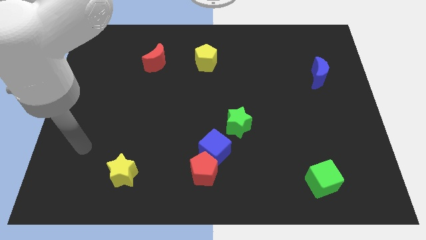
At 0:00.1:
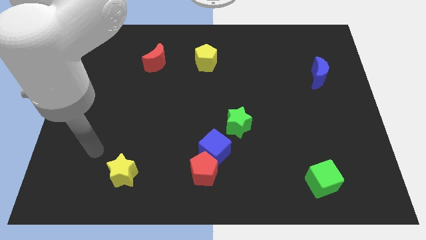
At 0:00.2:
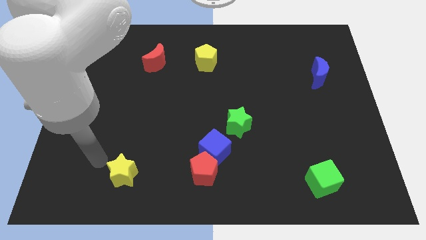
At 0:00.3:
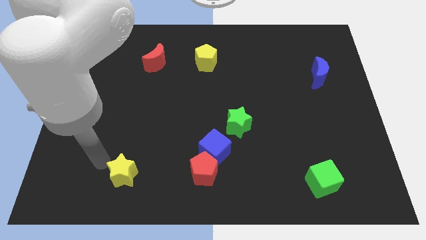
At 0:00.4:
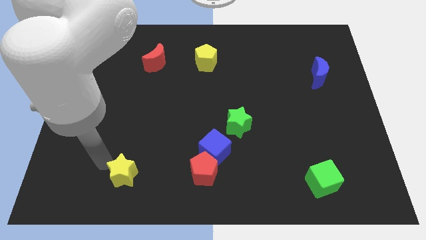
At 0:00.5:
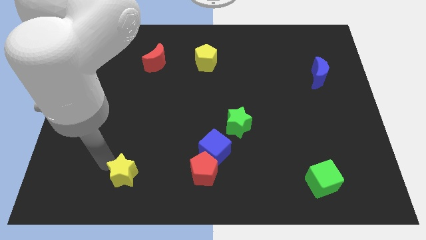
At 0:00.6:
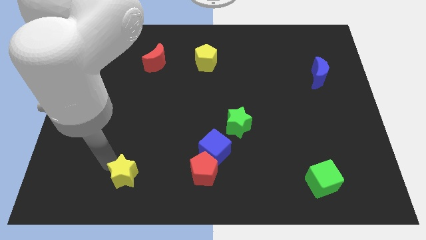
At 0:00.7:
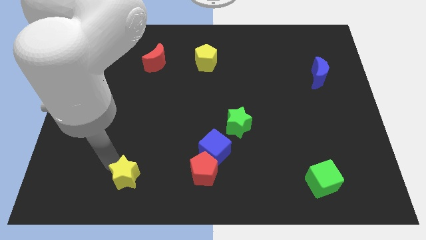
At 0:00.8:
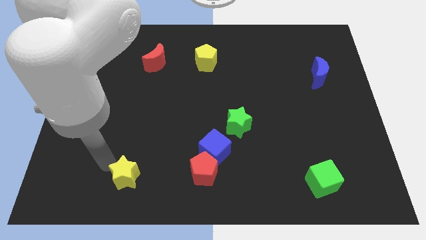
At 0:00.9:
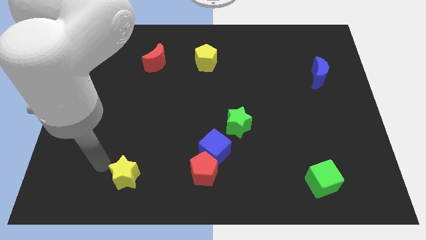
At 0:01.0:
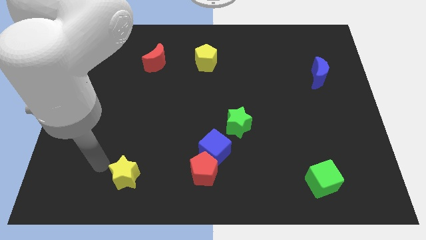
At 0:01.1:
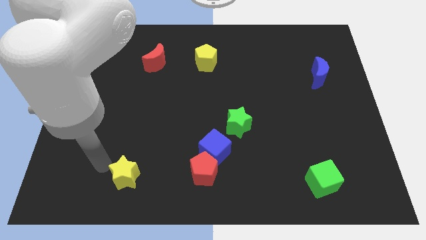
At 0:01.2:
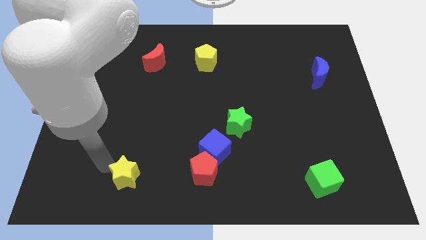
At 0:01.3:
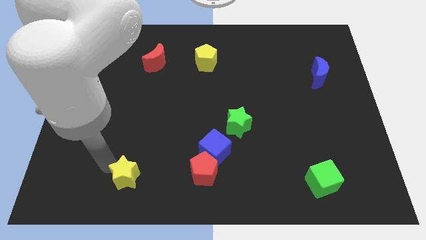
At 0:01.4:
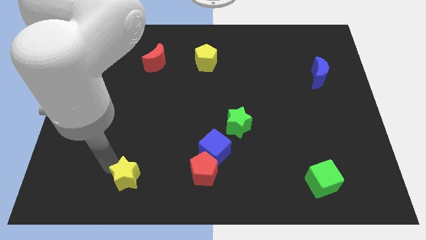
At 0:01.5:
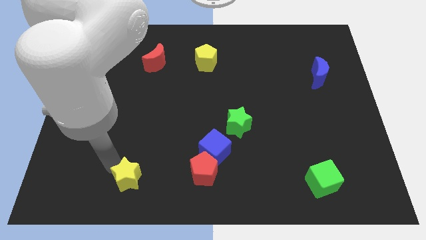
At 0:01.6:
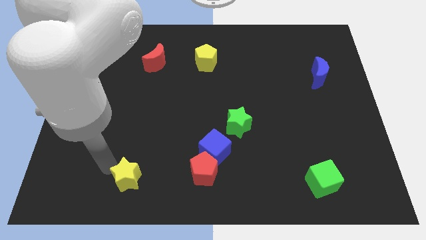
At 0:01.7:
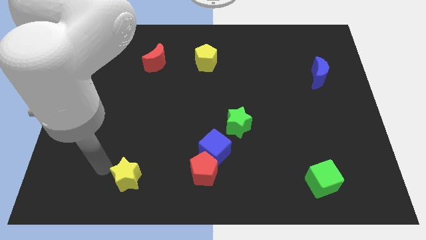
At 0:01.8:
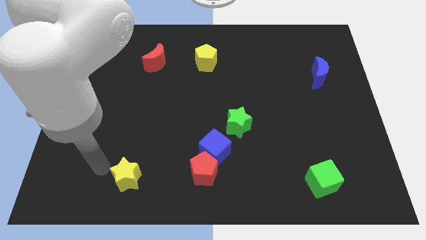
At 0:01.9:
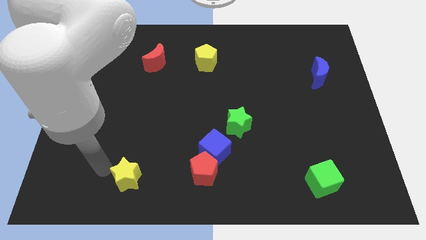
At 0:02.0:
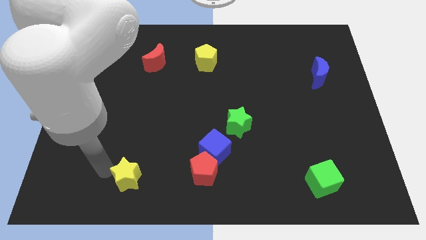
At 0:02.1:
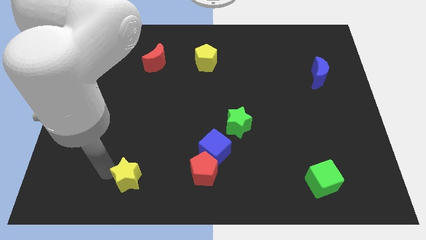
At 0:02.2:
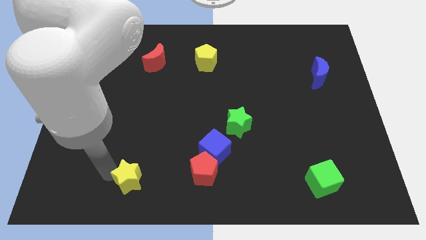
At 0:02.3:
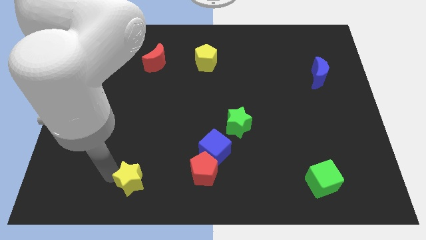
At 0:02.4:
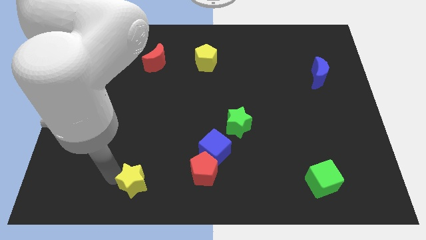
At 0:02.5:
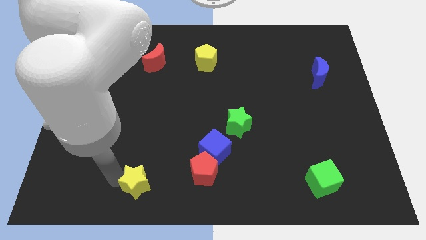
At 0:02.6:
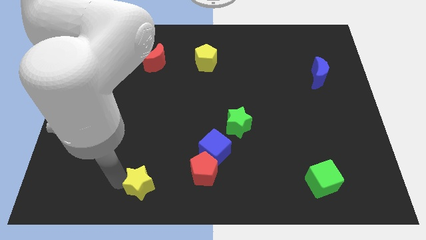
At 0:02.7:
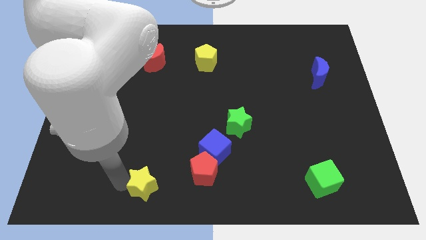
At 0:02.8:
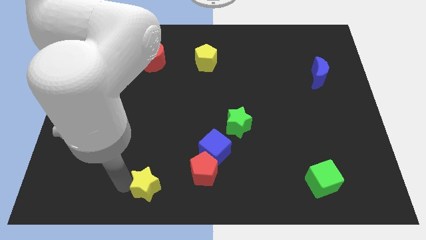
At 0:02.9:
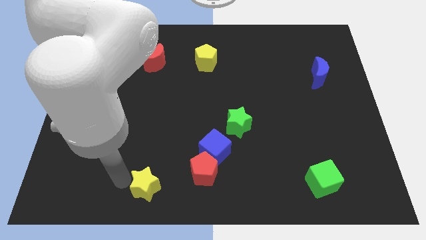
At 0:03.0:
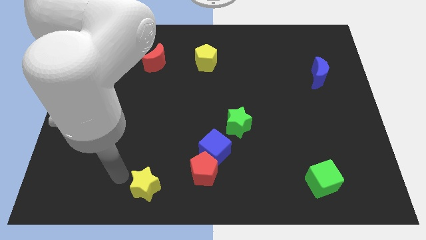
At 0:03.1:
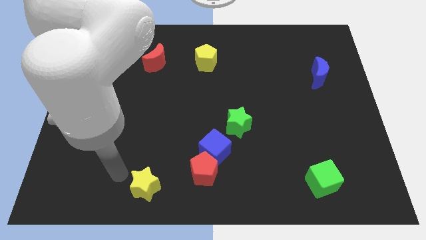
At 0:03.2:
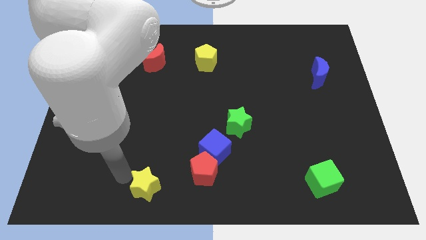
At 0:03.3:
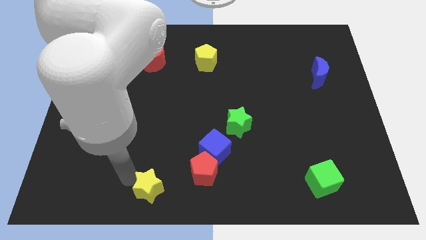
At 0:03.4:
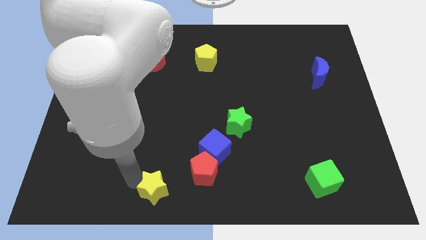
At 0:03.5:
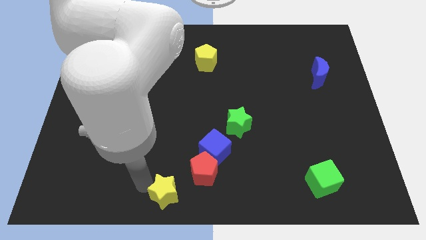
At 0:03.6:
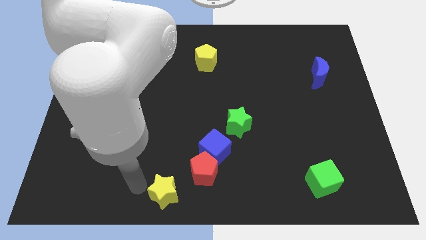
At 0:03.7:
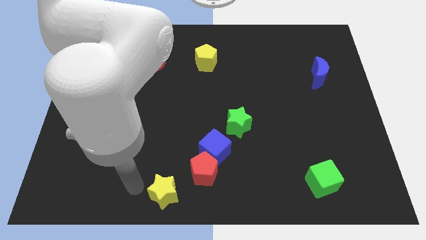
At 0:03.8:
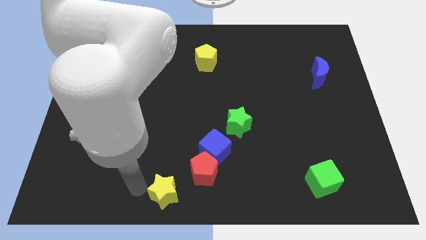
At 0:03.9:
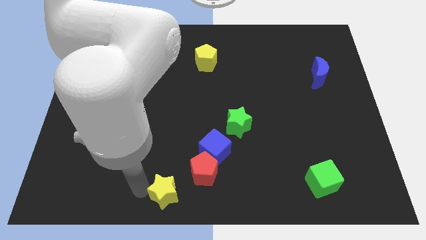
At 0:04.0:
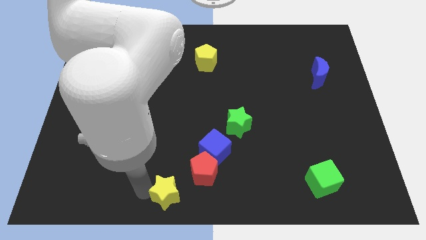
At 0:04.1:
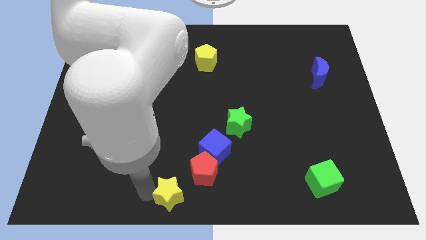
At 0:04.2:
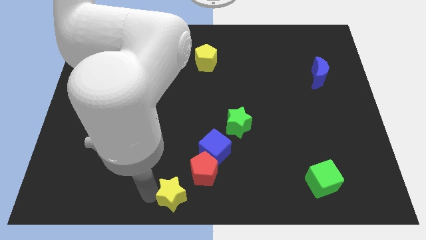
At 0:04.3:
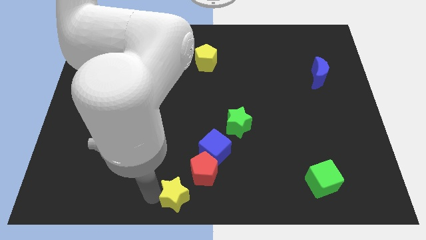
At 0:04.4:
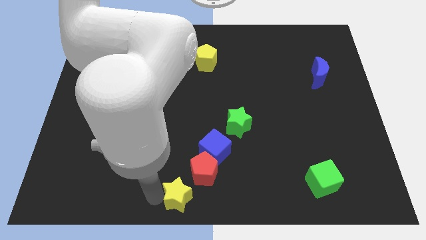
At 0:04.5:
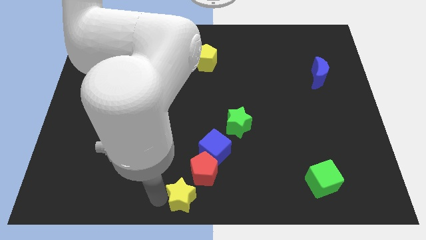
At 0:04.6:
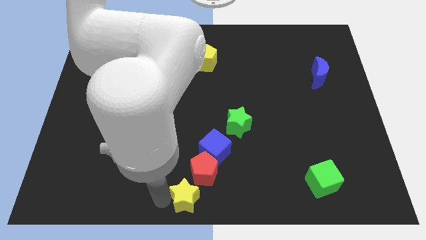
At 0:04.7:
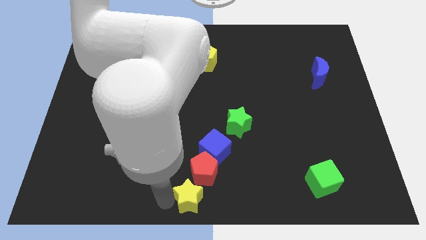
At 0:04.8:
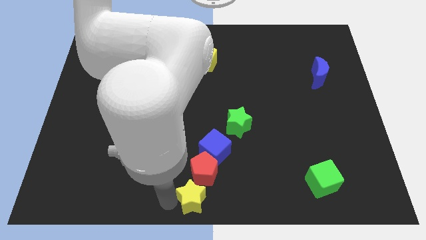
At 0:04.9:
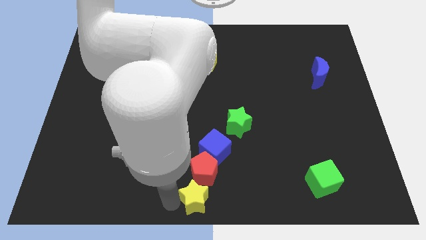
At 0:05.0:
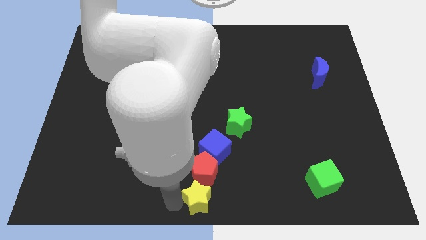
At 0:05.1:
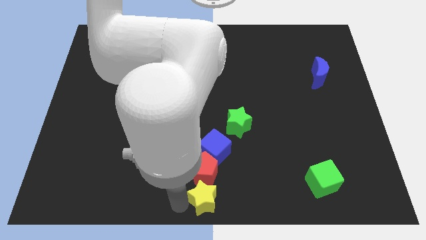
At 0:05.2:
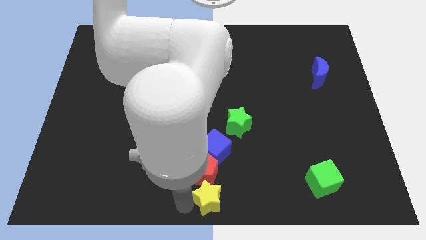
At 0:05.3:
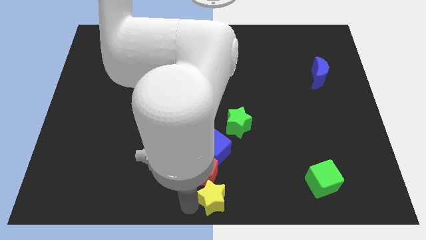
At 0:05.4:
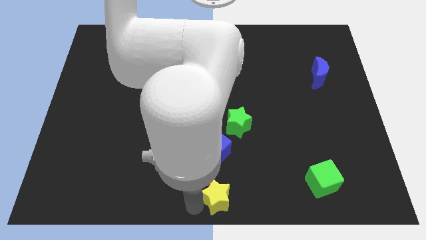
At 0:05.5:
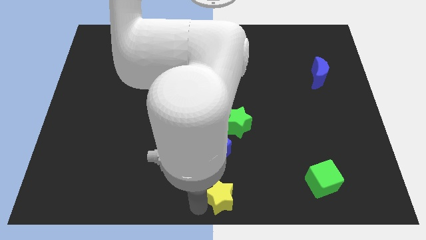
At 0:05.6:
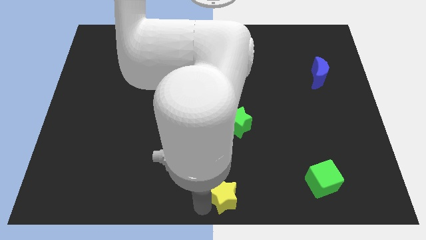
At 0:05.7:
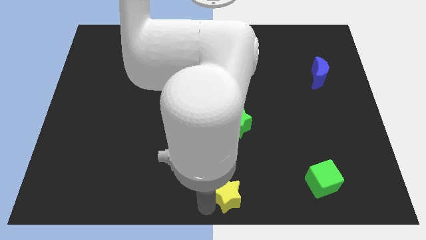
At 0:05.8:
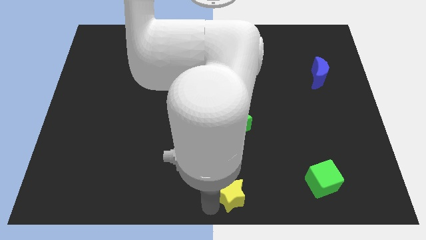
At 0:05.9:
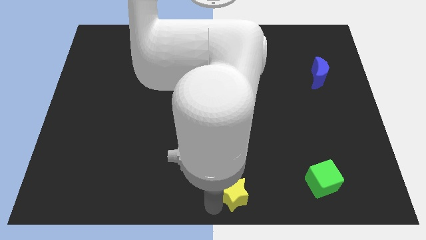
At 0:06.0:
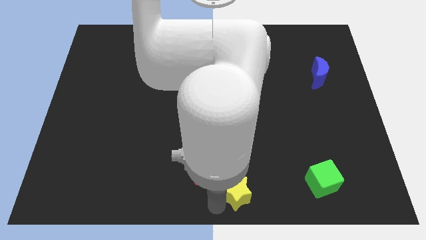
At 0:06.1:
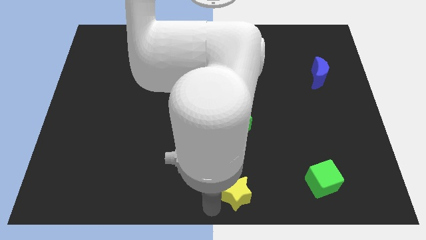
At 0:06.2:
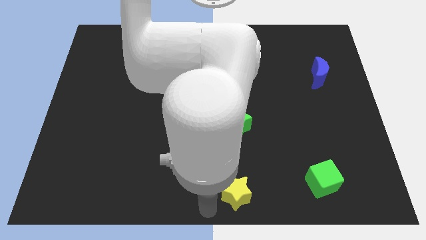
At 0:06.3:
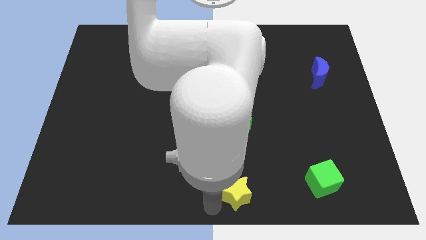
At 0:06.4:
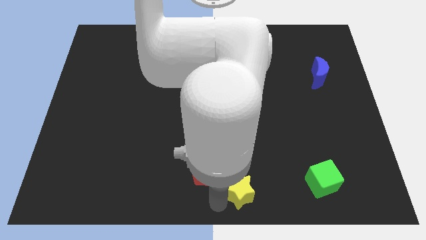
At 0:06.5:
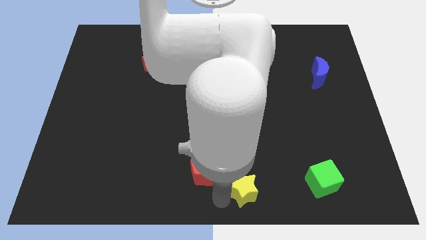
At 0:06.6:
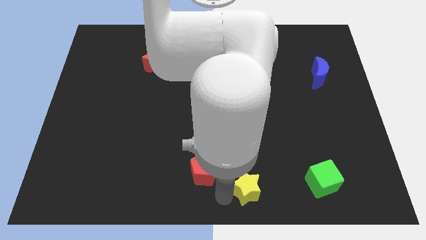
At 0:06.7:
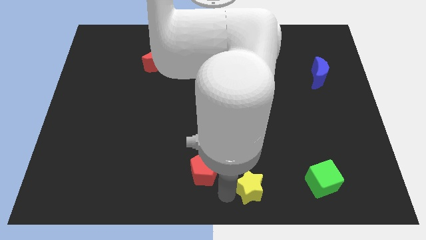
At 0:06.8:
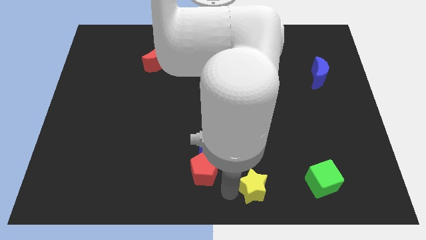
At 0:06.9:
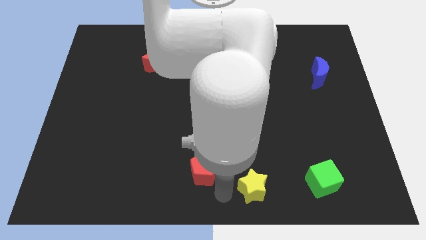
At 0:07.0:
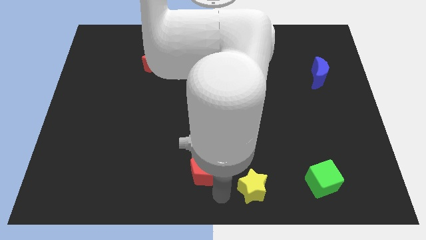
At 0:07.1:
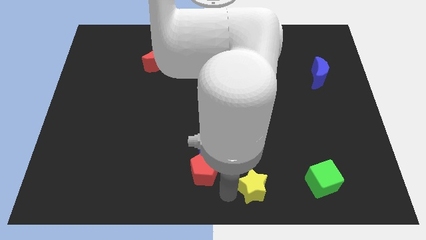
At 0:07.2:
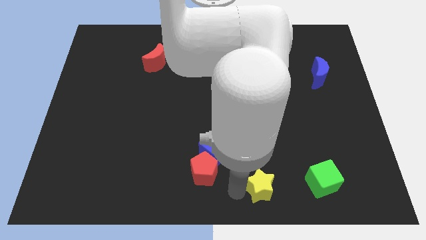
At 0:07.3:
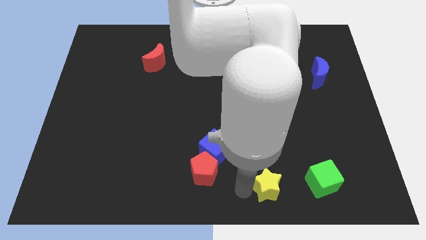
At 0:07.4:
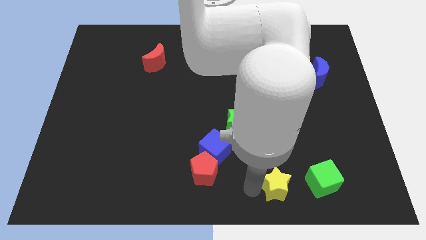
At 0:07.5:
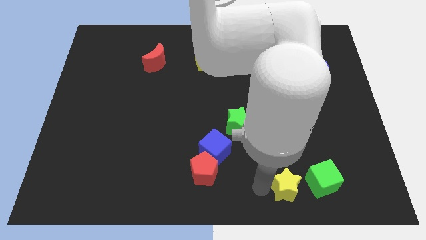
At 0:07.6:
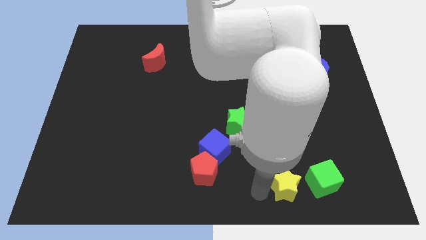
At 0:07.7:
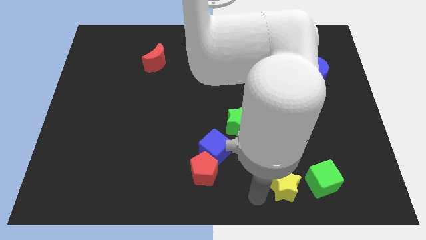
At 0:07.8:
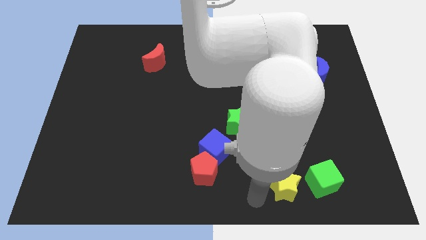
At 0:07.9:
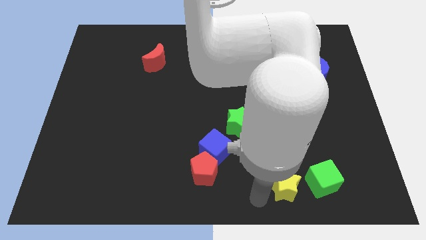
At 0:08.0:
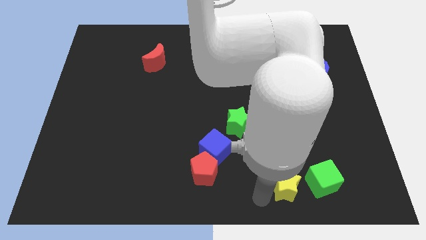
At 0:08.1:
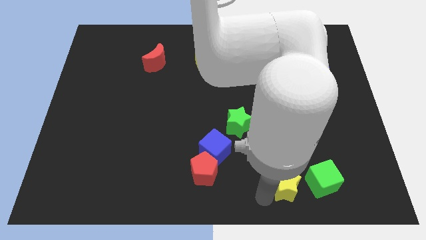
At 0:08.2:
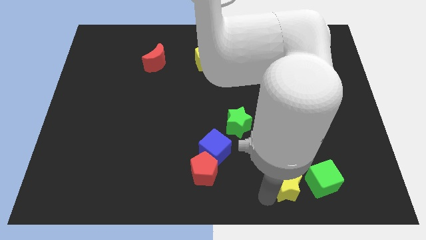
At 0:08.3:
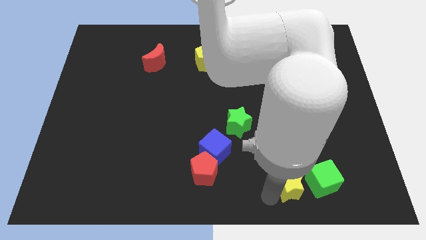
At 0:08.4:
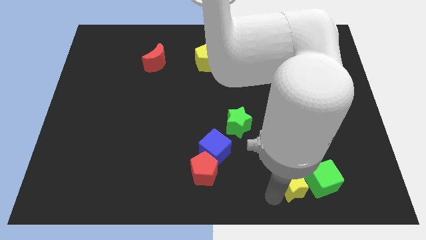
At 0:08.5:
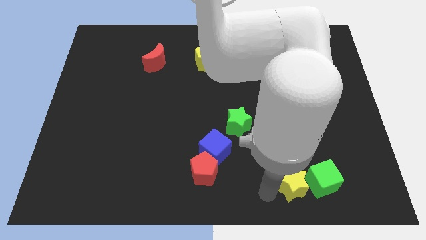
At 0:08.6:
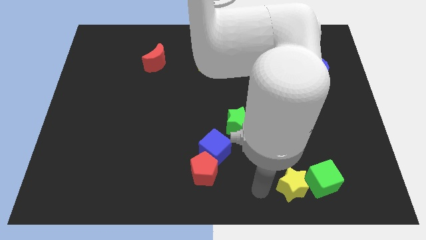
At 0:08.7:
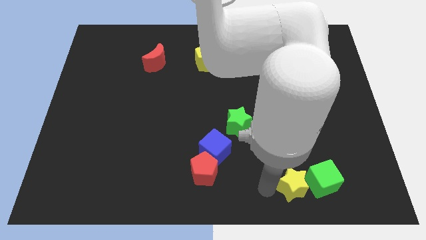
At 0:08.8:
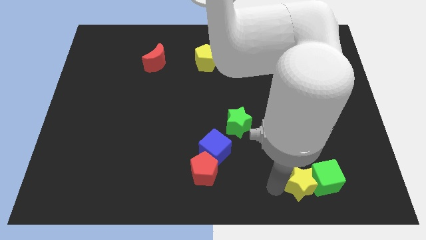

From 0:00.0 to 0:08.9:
push the yellow star towards the green cube
